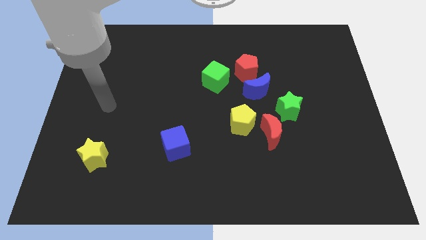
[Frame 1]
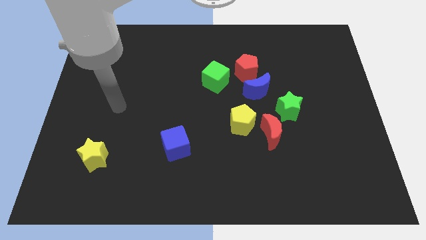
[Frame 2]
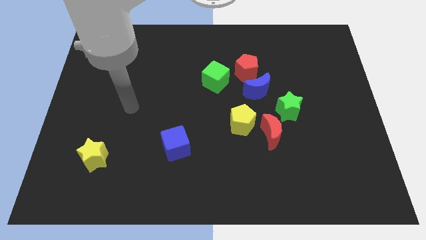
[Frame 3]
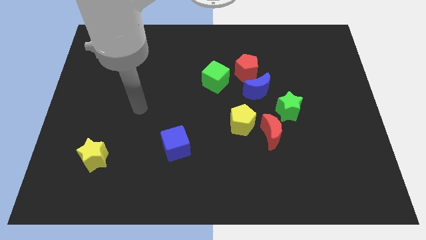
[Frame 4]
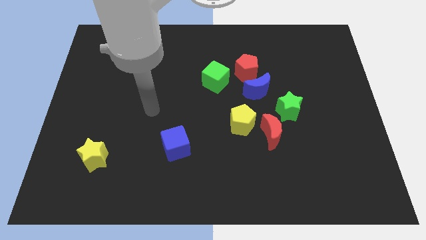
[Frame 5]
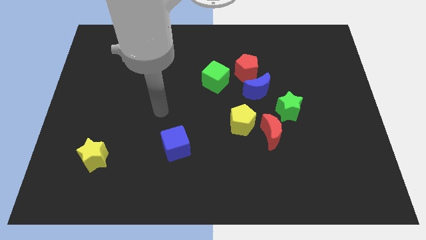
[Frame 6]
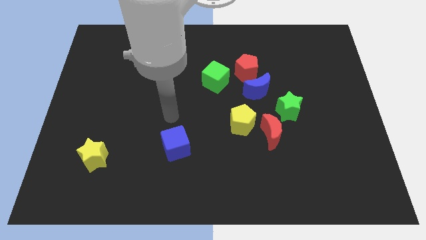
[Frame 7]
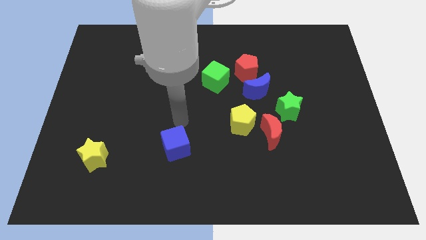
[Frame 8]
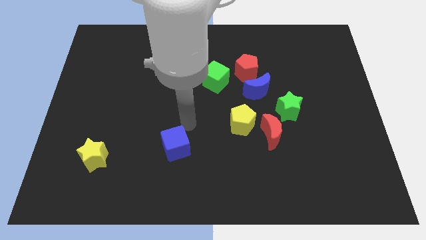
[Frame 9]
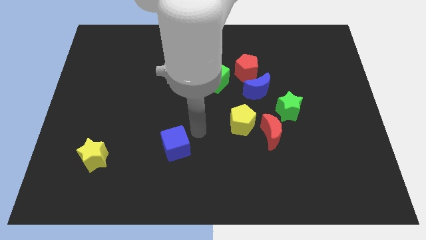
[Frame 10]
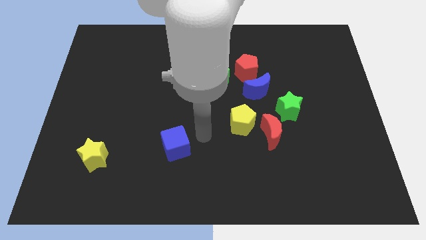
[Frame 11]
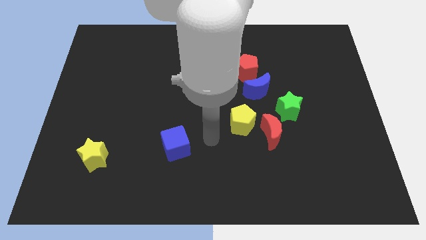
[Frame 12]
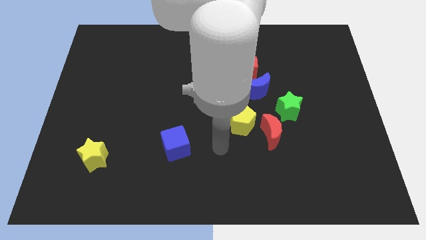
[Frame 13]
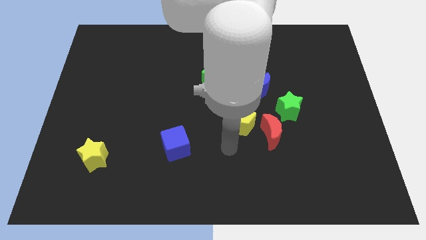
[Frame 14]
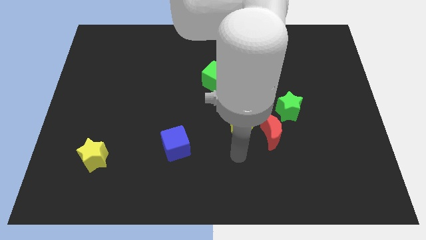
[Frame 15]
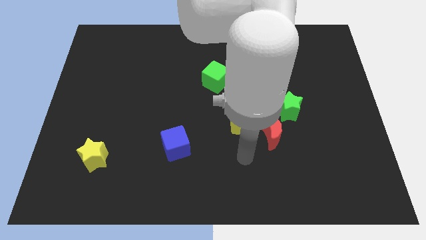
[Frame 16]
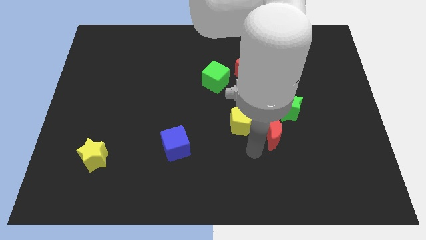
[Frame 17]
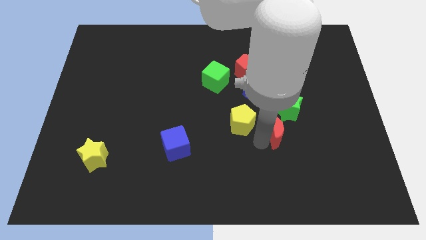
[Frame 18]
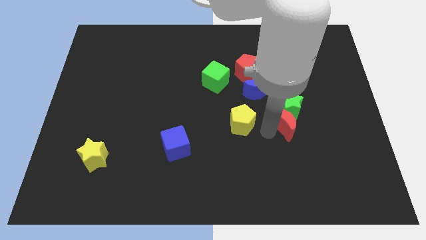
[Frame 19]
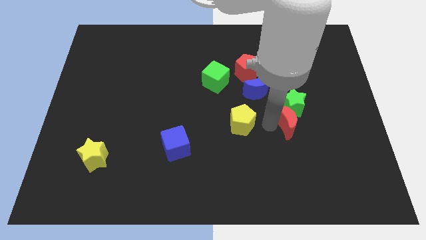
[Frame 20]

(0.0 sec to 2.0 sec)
pull the yellow pentagon apart from the red moon

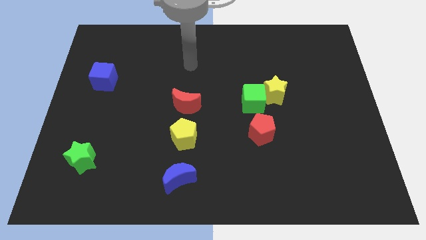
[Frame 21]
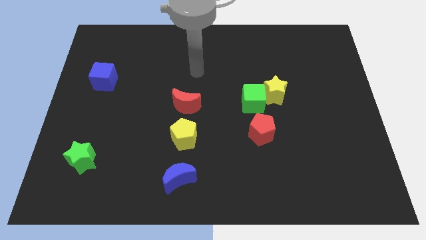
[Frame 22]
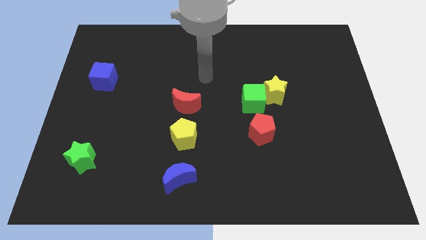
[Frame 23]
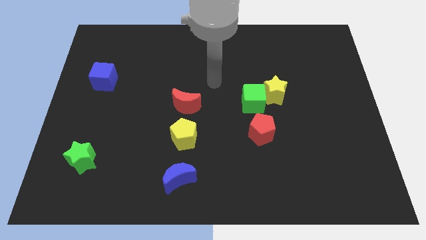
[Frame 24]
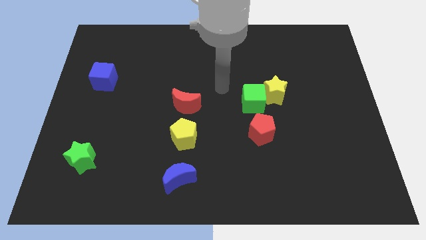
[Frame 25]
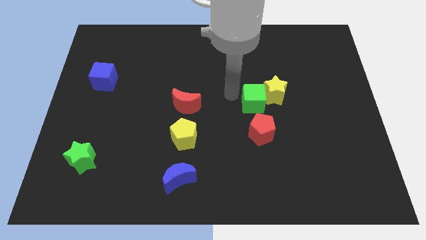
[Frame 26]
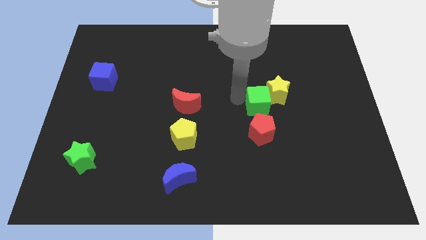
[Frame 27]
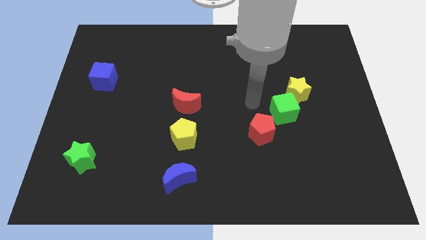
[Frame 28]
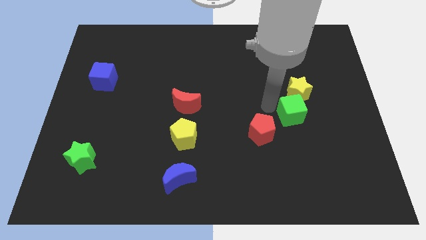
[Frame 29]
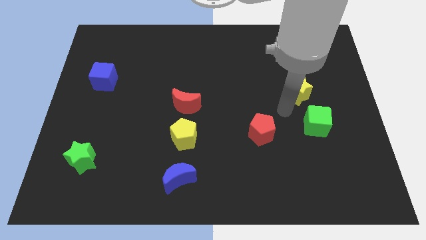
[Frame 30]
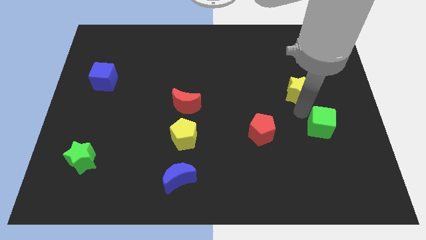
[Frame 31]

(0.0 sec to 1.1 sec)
separate the yellow star from the green cube

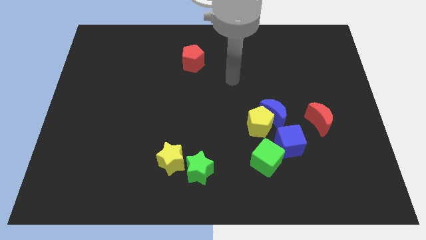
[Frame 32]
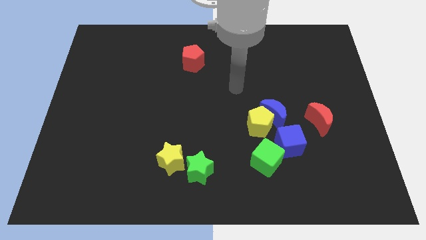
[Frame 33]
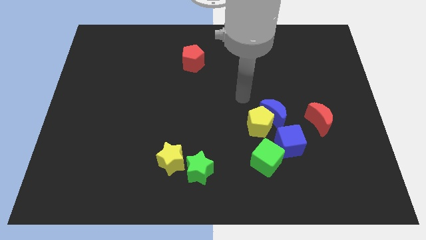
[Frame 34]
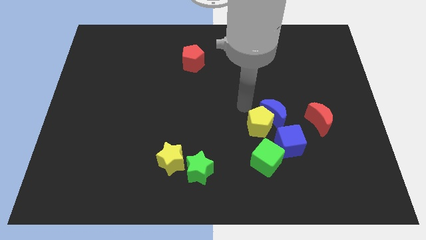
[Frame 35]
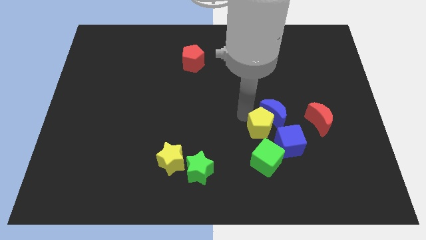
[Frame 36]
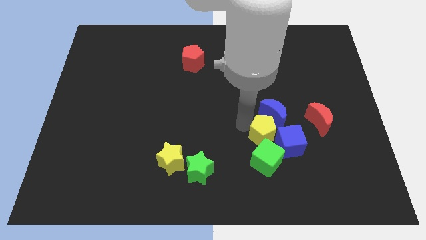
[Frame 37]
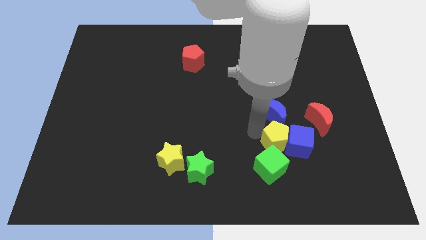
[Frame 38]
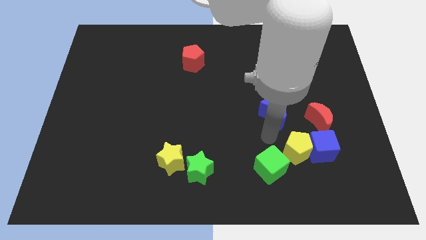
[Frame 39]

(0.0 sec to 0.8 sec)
move the blue moon away from the yellow pentagon and blue cube

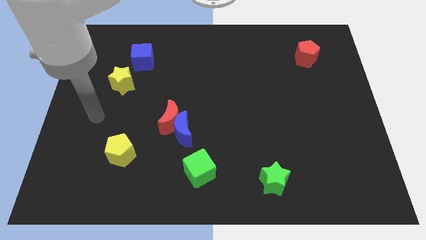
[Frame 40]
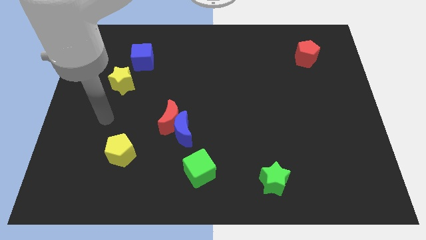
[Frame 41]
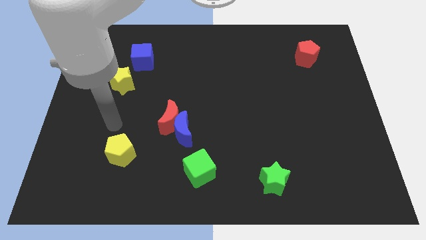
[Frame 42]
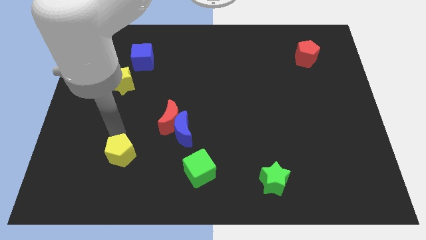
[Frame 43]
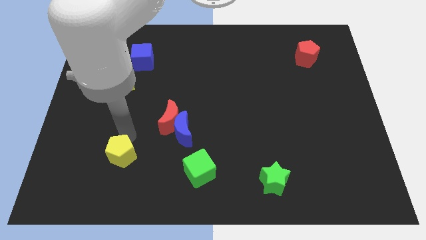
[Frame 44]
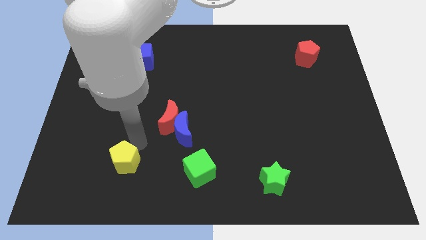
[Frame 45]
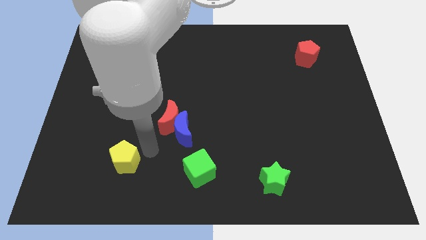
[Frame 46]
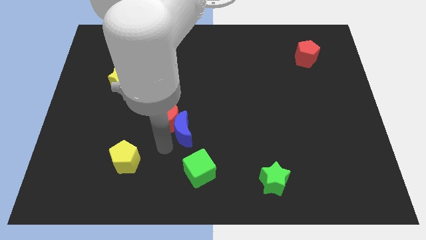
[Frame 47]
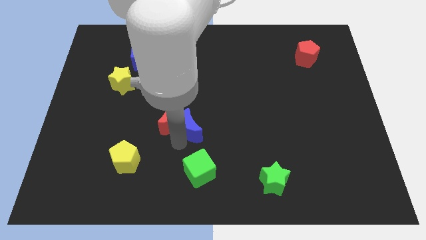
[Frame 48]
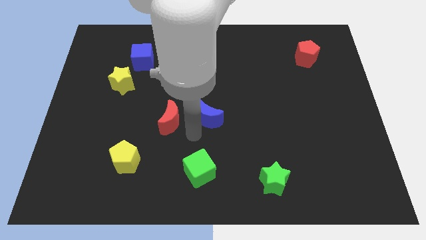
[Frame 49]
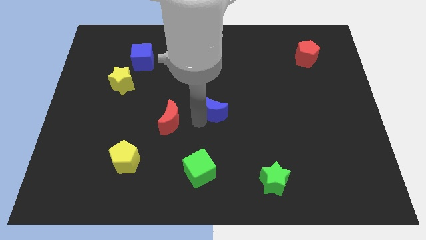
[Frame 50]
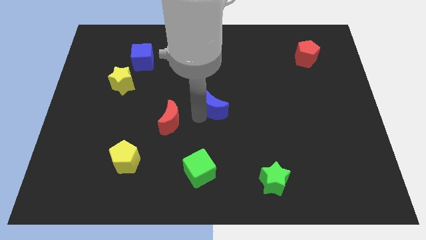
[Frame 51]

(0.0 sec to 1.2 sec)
separate the red moon from the blue moon

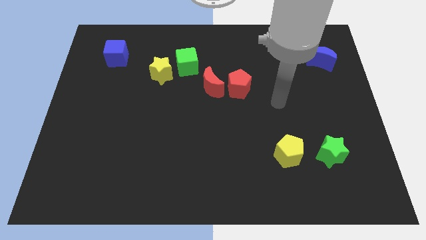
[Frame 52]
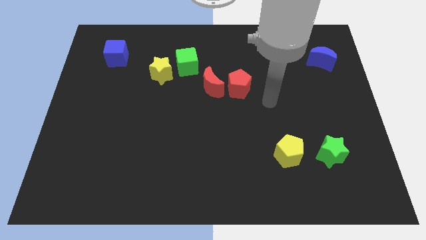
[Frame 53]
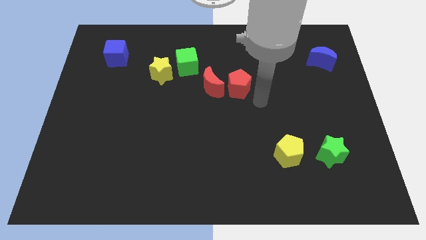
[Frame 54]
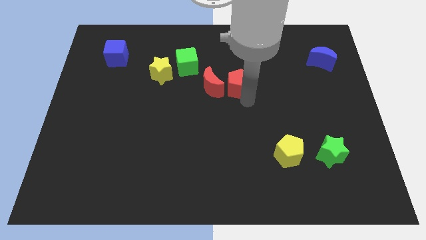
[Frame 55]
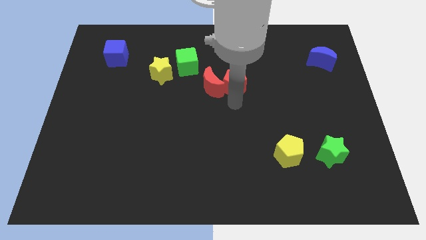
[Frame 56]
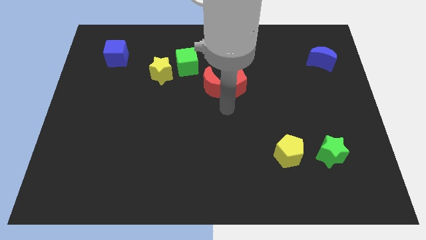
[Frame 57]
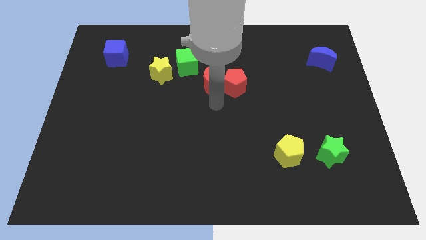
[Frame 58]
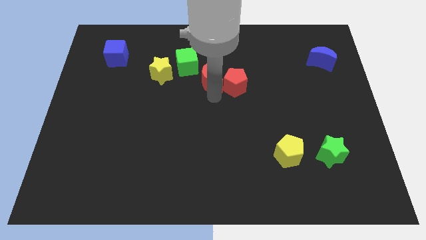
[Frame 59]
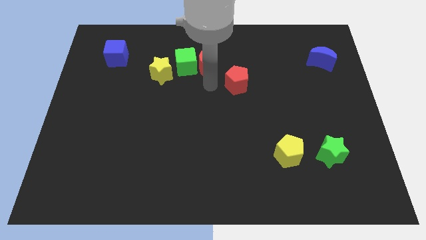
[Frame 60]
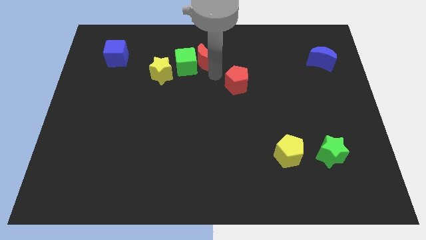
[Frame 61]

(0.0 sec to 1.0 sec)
pull the red pentagon apart from the red moon

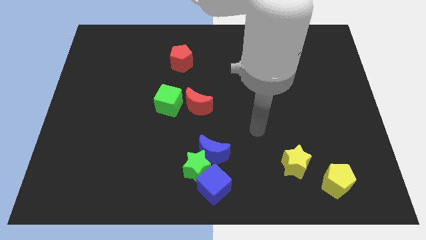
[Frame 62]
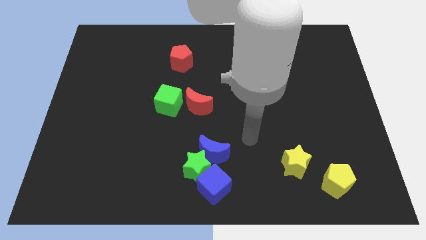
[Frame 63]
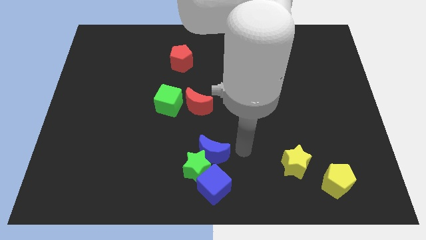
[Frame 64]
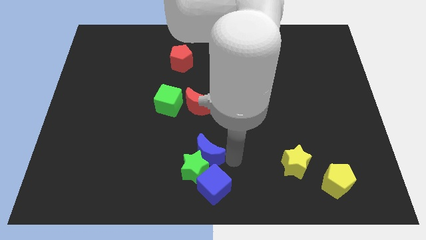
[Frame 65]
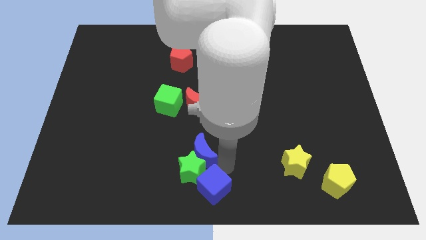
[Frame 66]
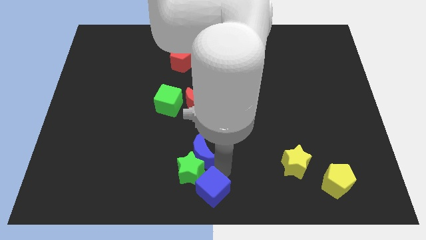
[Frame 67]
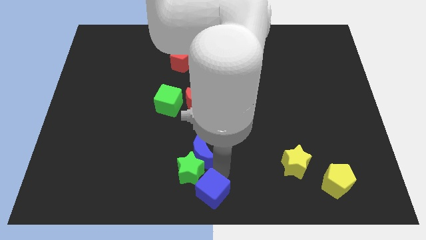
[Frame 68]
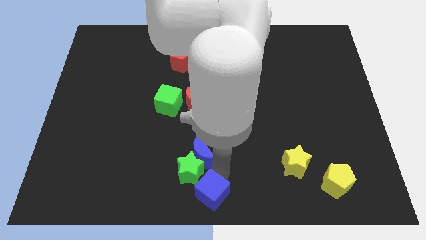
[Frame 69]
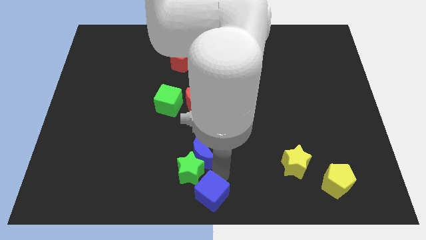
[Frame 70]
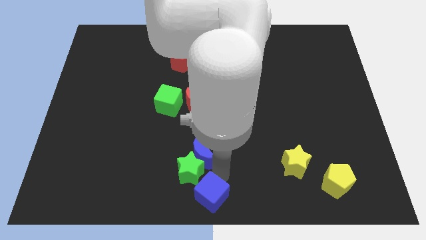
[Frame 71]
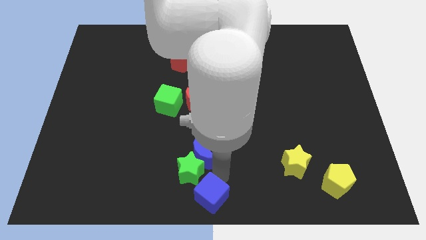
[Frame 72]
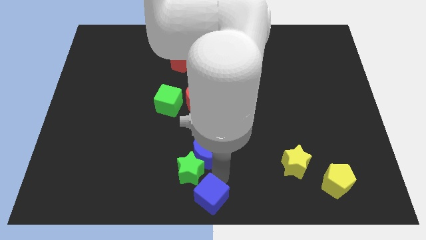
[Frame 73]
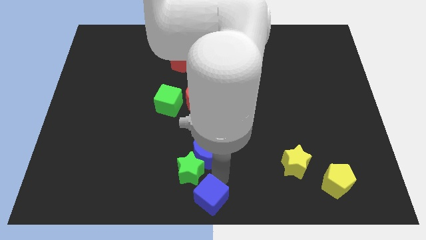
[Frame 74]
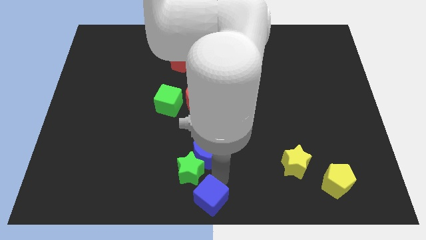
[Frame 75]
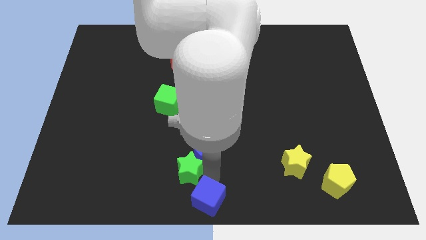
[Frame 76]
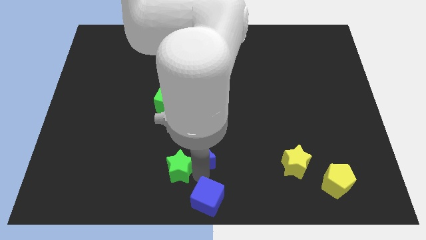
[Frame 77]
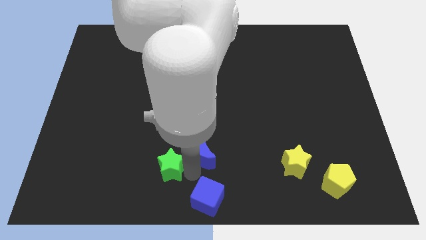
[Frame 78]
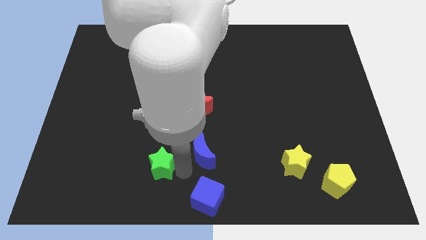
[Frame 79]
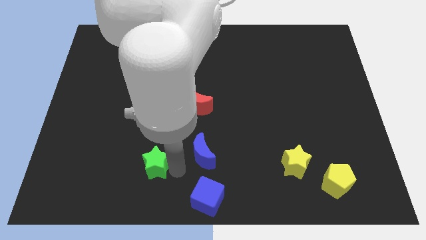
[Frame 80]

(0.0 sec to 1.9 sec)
move the green star away from the blue moon and blue cube

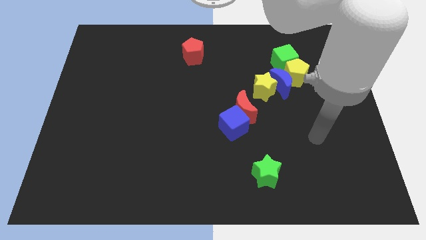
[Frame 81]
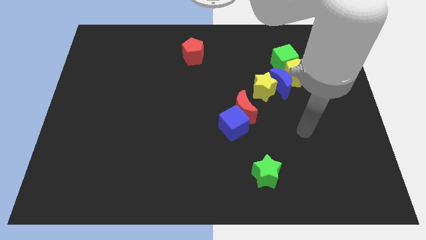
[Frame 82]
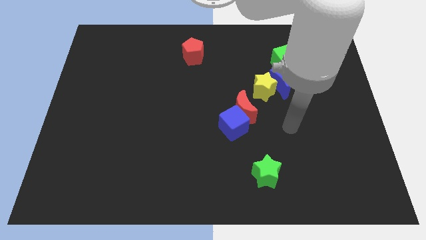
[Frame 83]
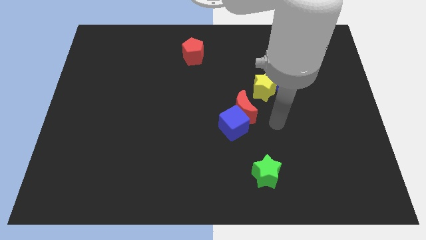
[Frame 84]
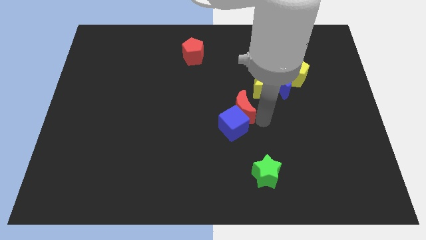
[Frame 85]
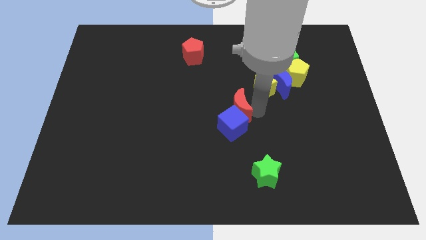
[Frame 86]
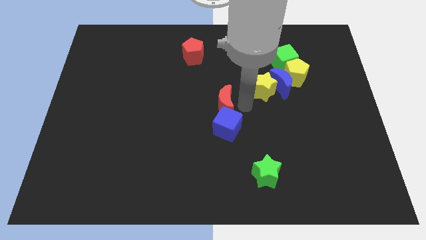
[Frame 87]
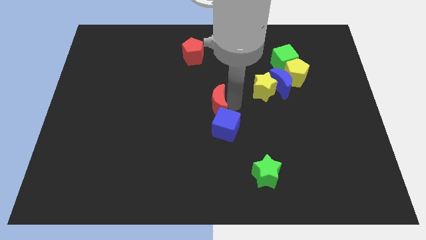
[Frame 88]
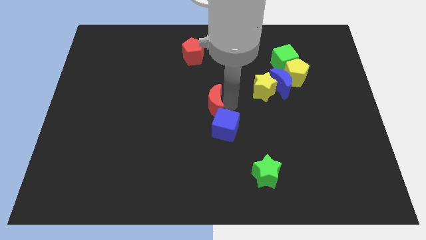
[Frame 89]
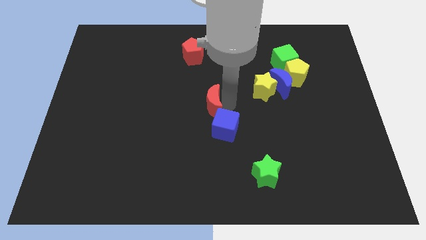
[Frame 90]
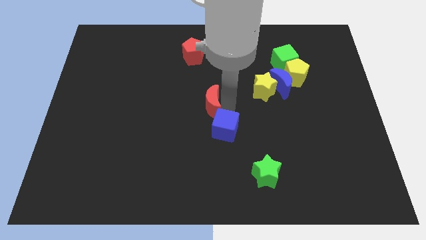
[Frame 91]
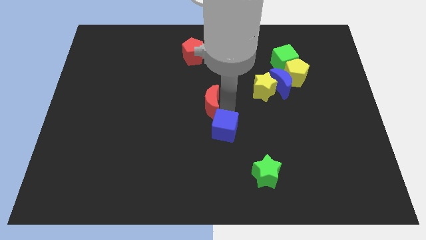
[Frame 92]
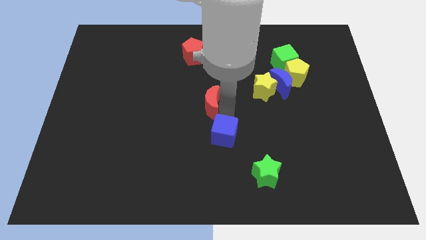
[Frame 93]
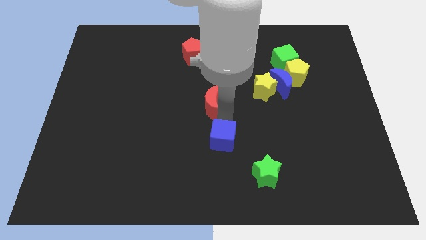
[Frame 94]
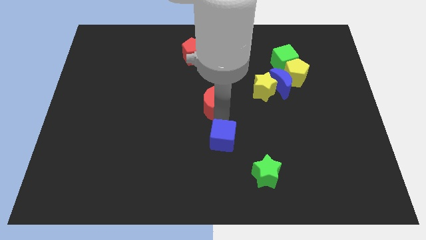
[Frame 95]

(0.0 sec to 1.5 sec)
move the blue cube away from the red moon
